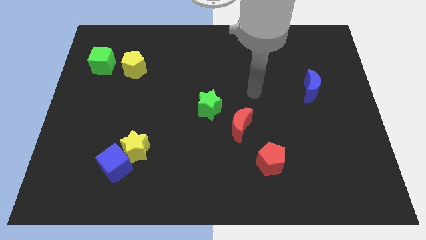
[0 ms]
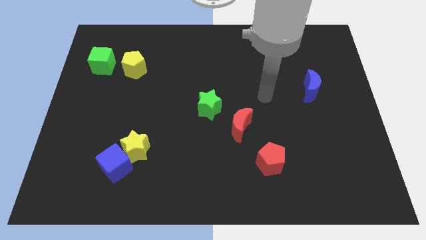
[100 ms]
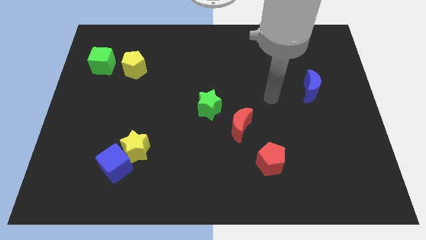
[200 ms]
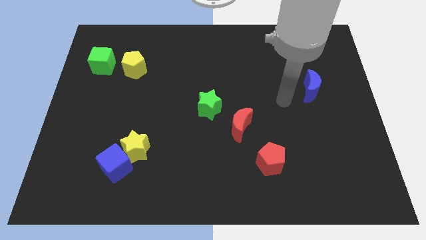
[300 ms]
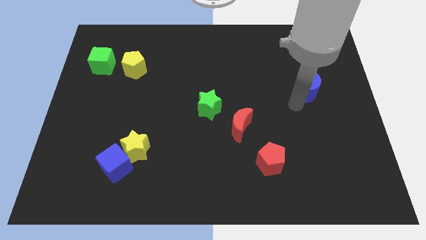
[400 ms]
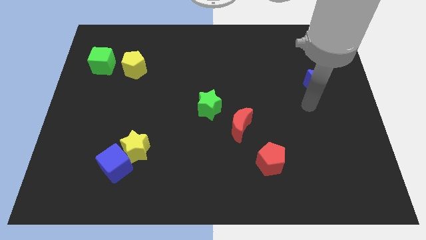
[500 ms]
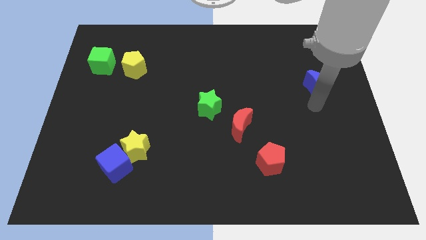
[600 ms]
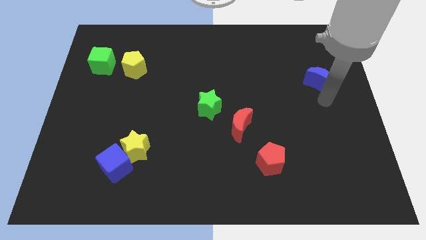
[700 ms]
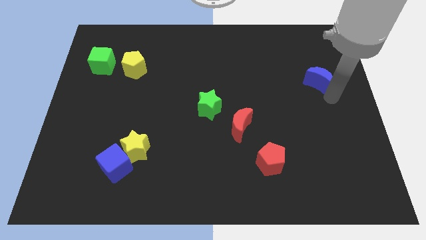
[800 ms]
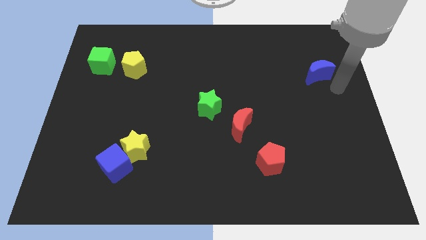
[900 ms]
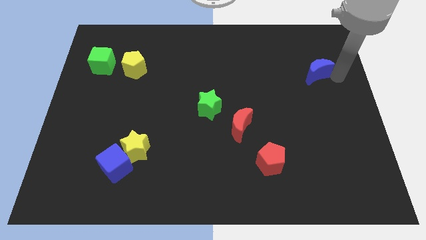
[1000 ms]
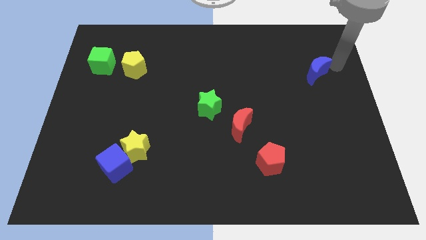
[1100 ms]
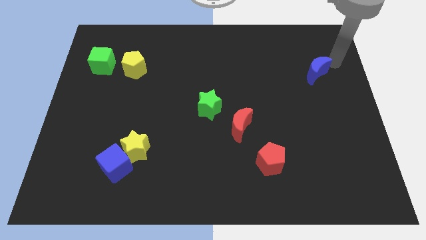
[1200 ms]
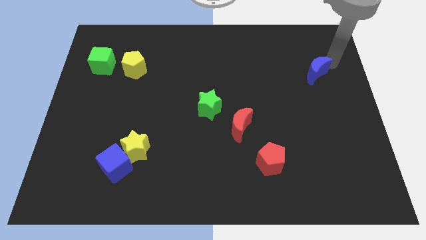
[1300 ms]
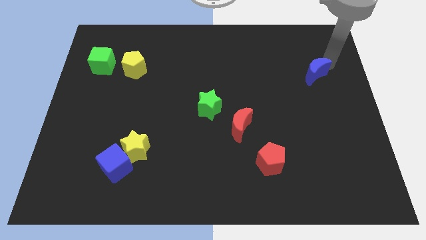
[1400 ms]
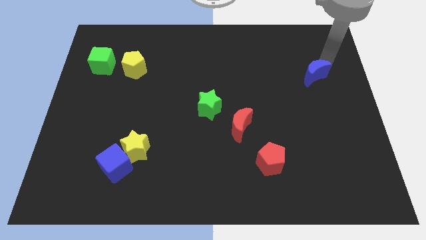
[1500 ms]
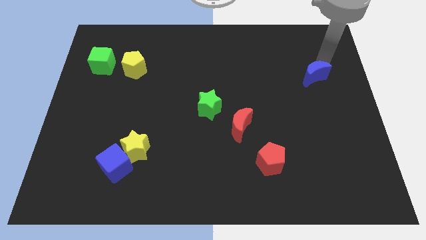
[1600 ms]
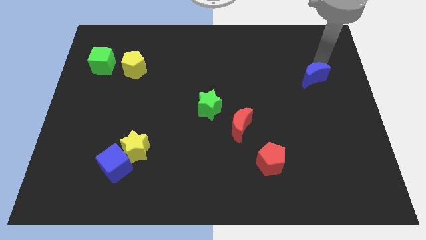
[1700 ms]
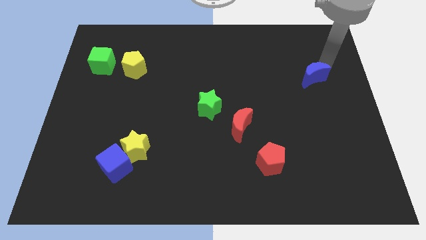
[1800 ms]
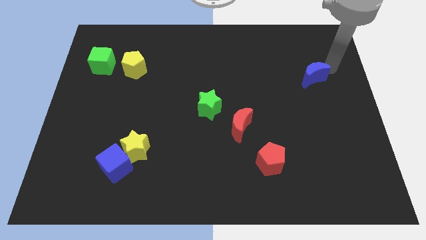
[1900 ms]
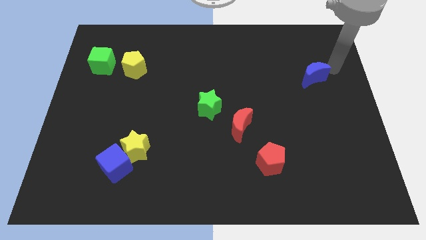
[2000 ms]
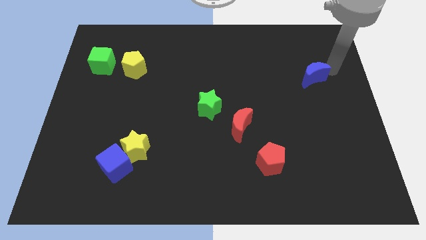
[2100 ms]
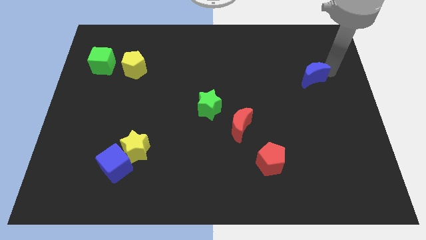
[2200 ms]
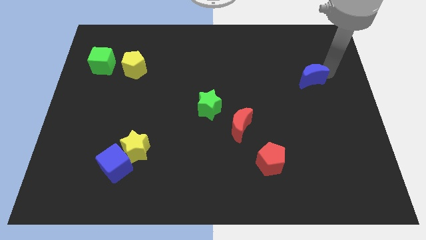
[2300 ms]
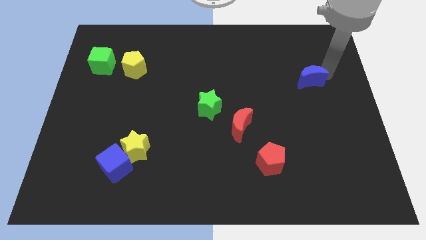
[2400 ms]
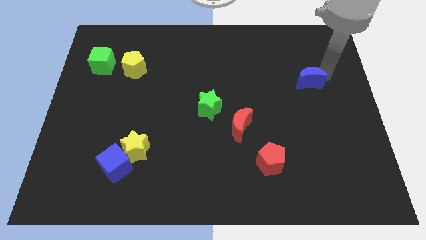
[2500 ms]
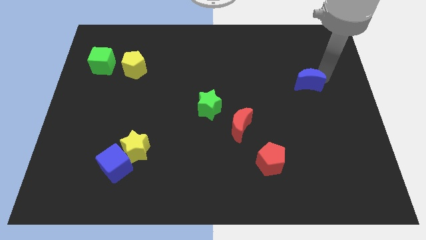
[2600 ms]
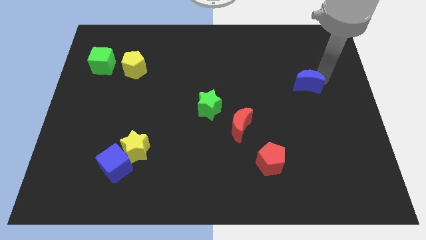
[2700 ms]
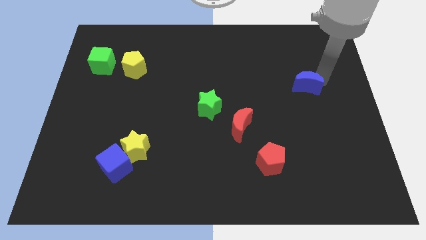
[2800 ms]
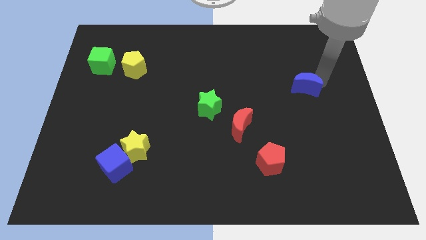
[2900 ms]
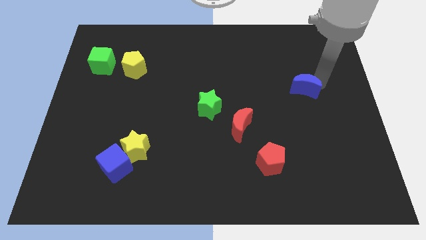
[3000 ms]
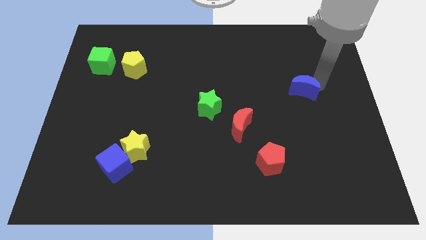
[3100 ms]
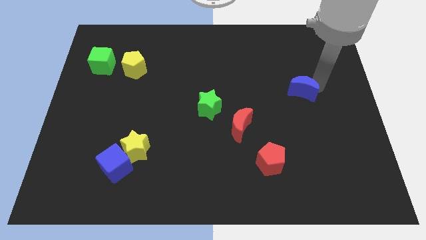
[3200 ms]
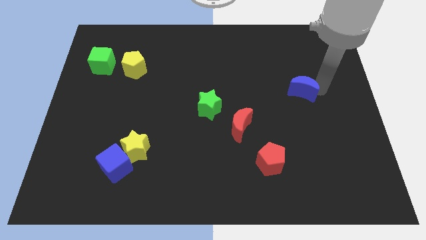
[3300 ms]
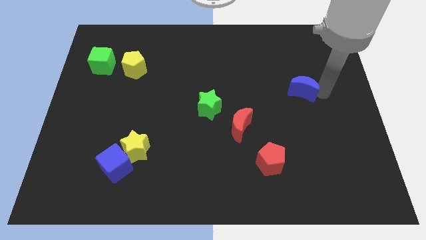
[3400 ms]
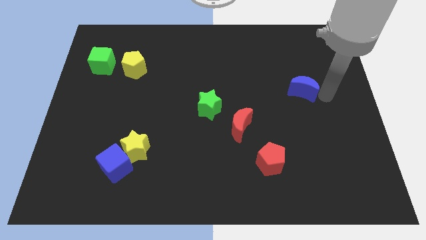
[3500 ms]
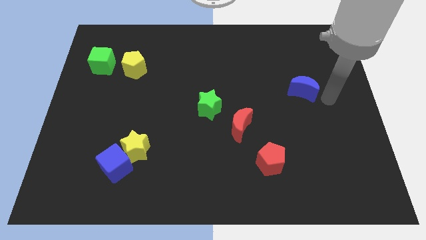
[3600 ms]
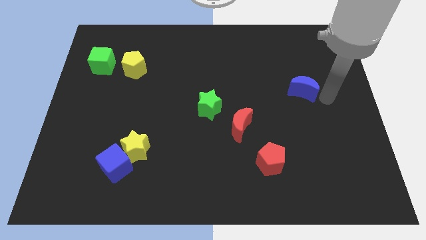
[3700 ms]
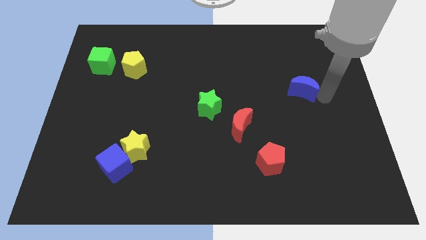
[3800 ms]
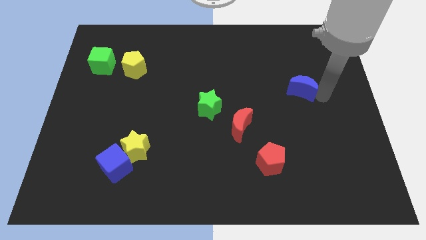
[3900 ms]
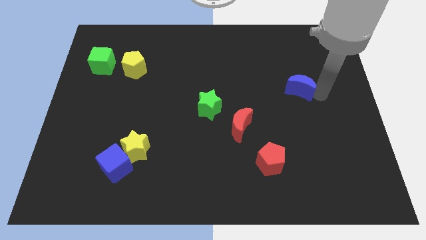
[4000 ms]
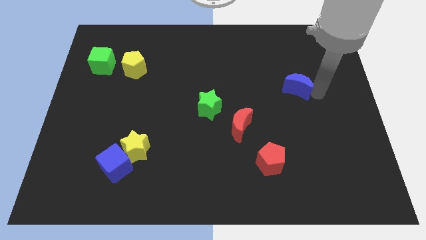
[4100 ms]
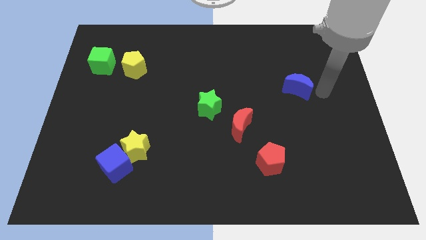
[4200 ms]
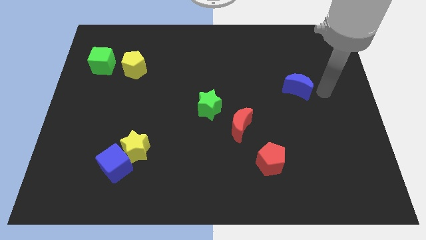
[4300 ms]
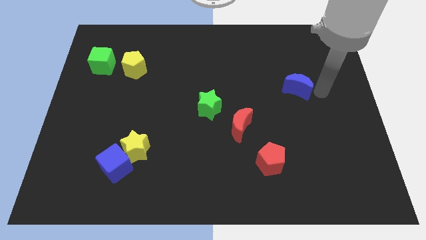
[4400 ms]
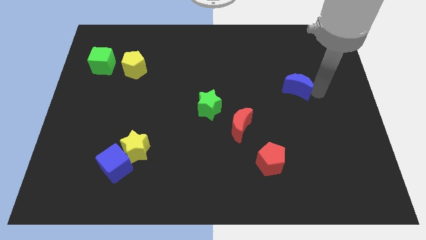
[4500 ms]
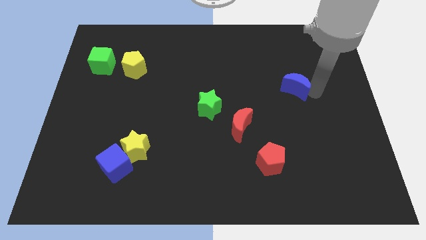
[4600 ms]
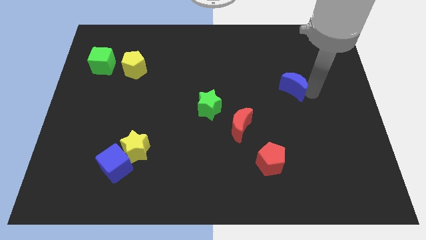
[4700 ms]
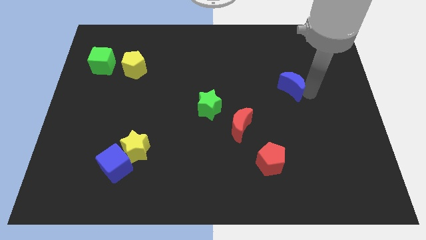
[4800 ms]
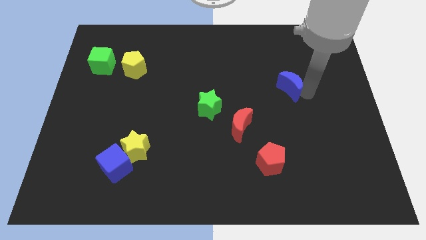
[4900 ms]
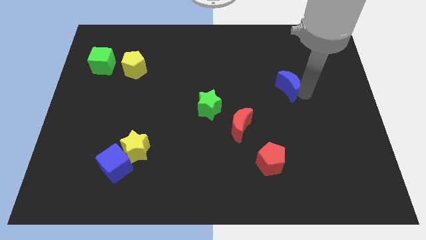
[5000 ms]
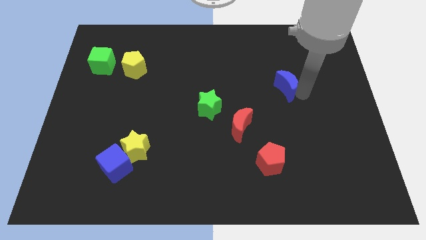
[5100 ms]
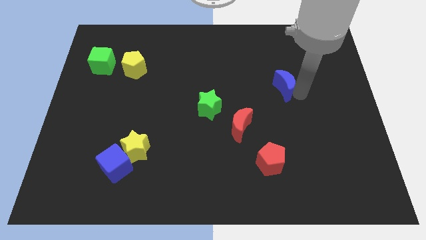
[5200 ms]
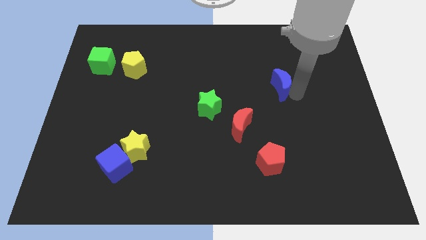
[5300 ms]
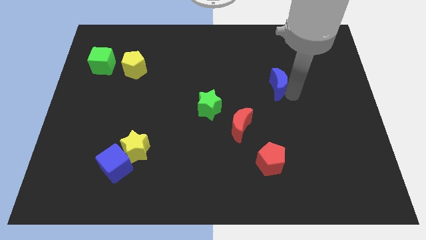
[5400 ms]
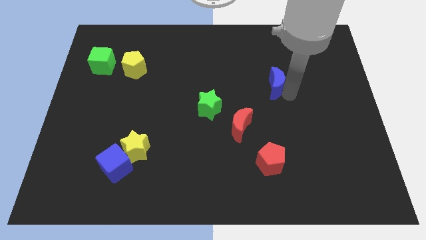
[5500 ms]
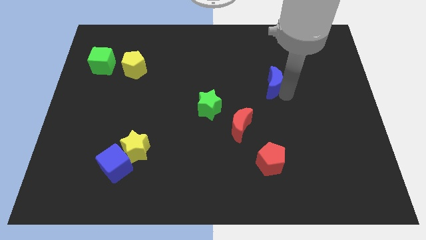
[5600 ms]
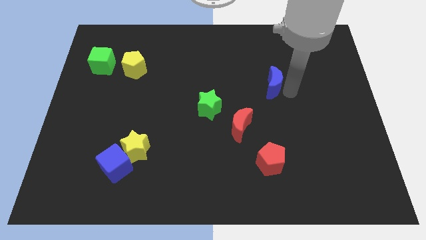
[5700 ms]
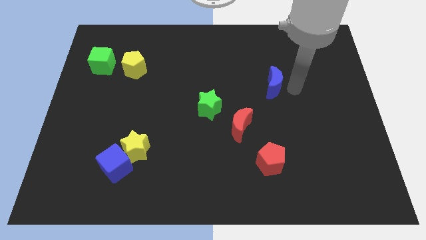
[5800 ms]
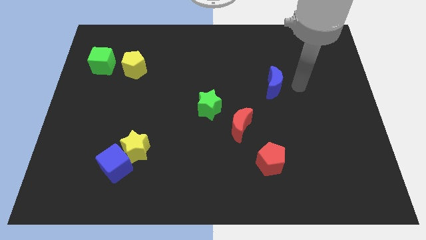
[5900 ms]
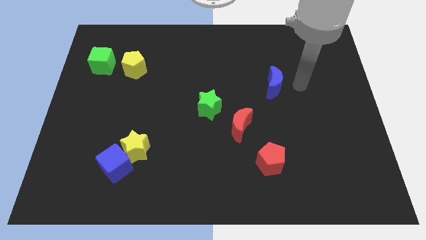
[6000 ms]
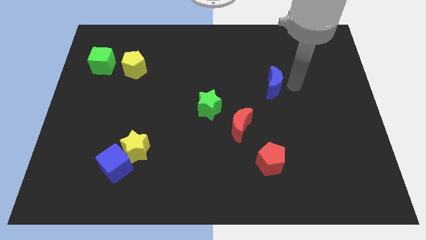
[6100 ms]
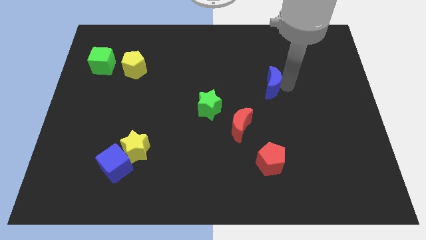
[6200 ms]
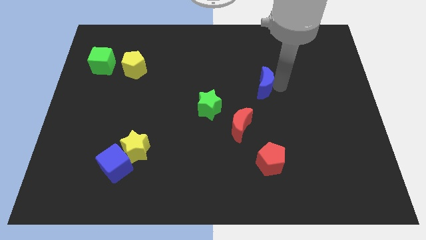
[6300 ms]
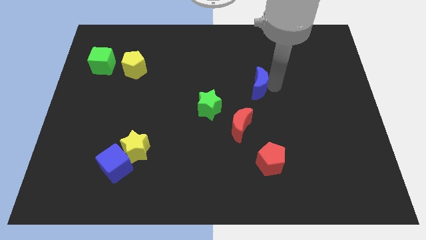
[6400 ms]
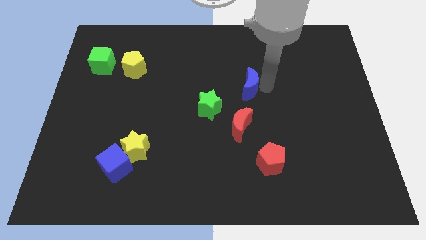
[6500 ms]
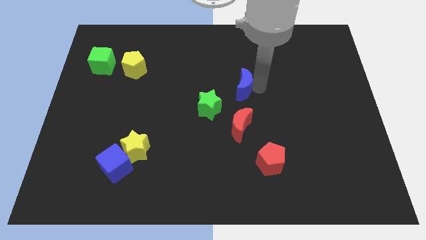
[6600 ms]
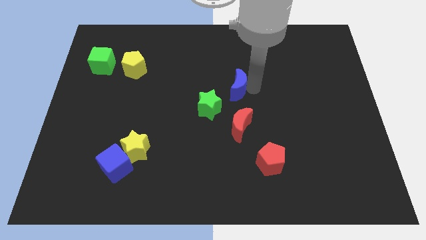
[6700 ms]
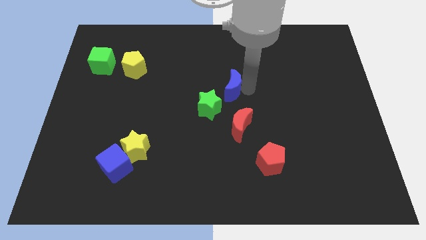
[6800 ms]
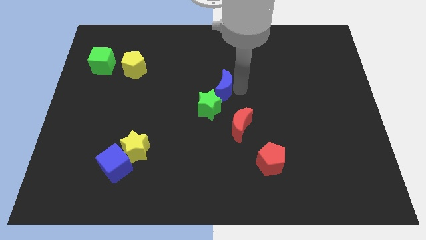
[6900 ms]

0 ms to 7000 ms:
move the blue moon to the left

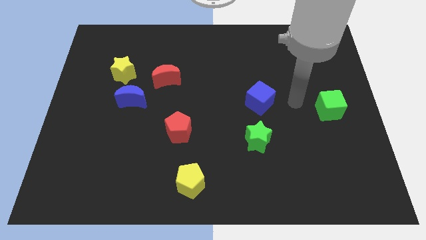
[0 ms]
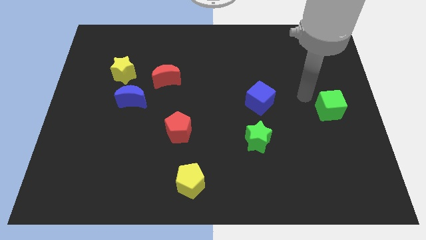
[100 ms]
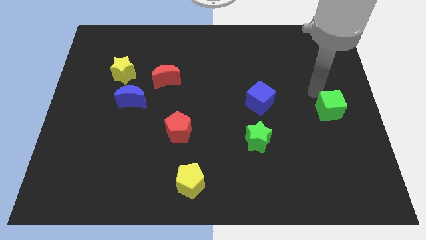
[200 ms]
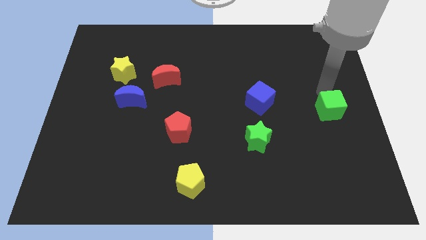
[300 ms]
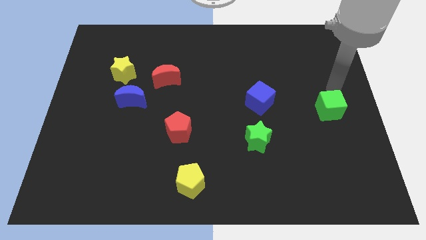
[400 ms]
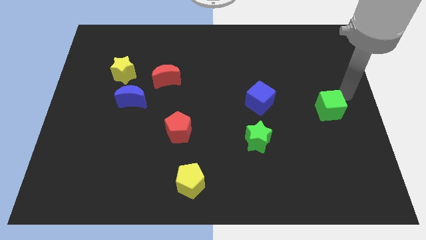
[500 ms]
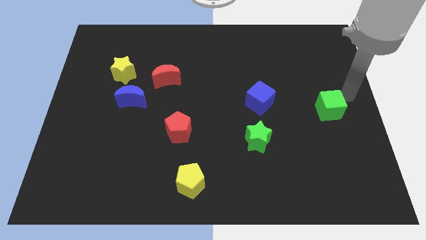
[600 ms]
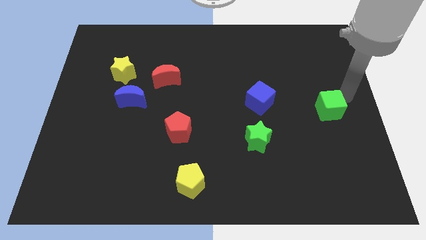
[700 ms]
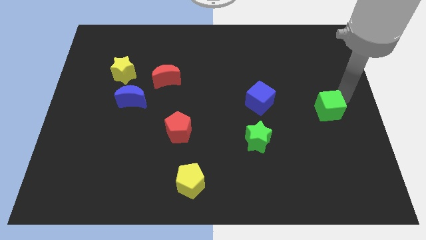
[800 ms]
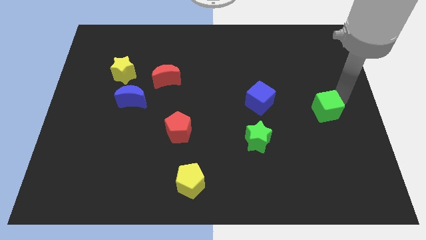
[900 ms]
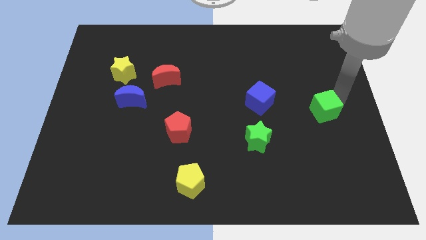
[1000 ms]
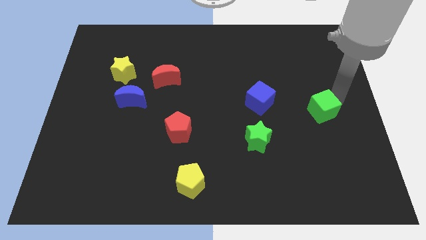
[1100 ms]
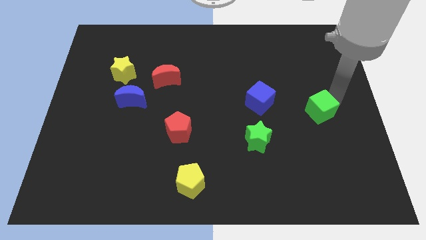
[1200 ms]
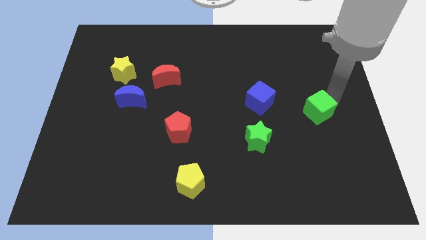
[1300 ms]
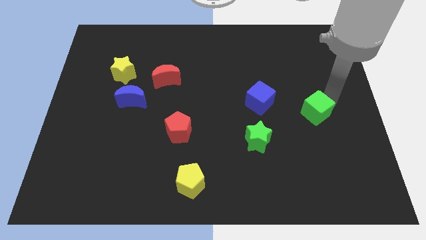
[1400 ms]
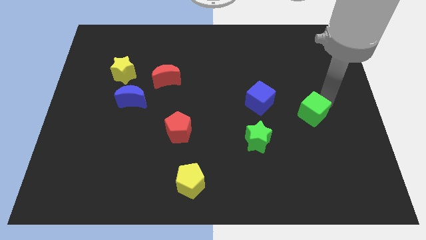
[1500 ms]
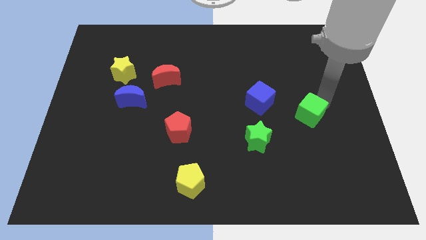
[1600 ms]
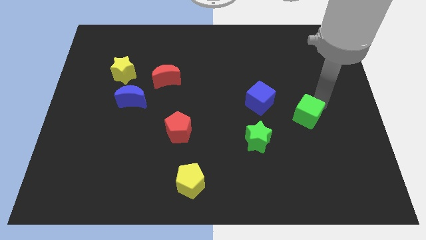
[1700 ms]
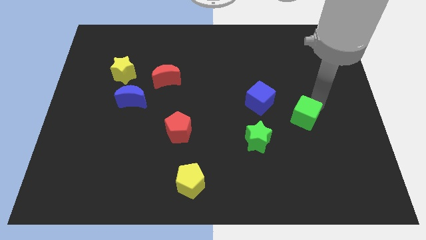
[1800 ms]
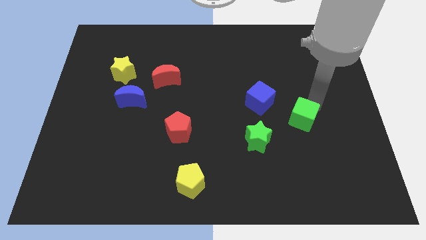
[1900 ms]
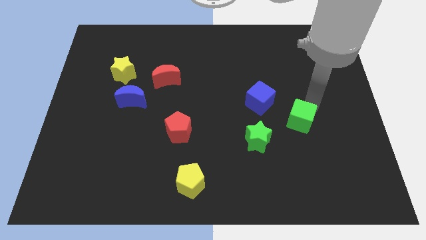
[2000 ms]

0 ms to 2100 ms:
slightly slide the green cube downwards and then left
